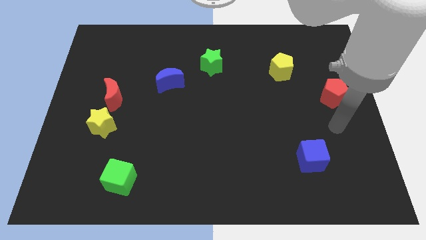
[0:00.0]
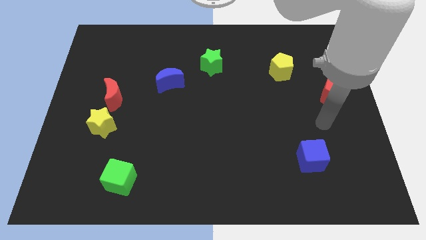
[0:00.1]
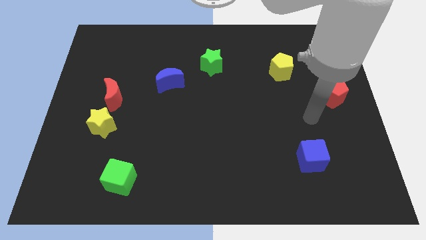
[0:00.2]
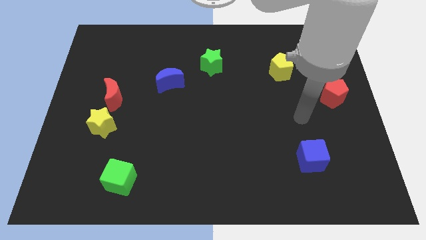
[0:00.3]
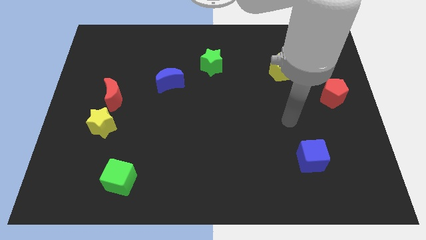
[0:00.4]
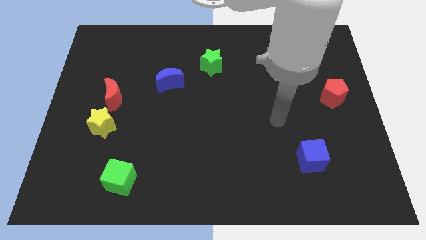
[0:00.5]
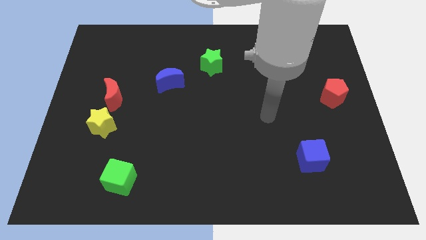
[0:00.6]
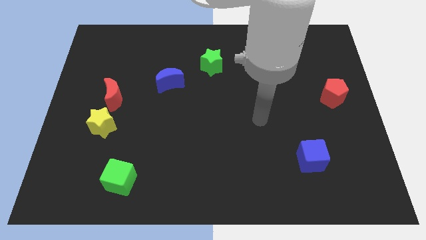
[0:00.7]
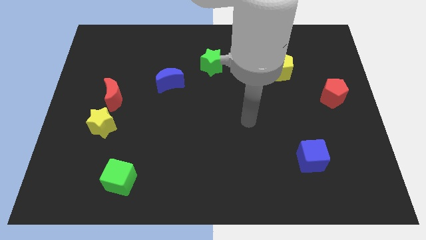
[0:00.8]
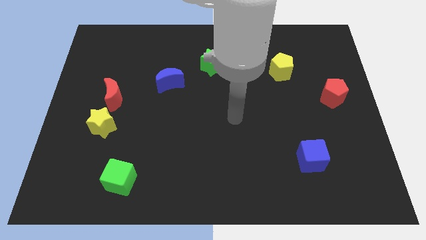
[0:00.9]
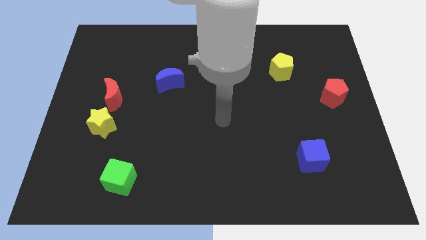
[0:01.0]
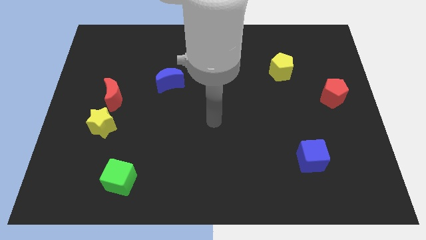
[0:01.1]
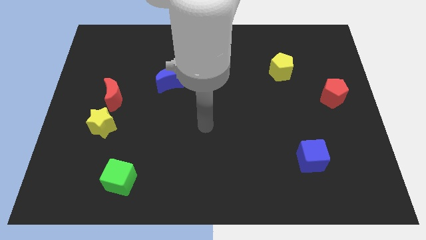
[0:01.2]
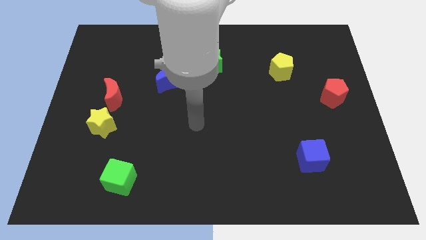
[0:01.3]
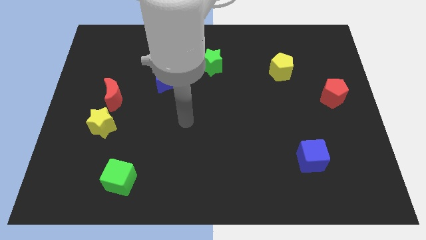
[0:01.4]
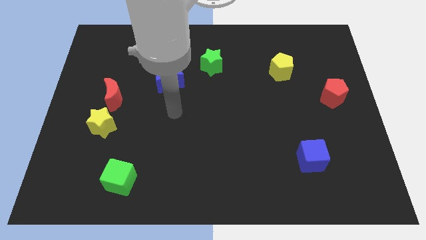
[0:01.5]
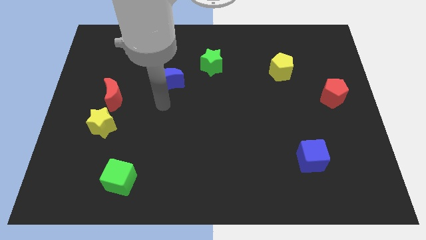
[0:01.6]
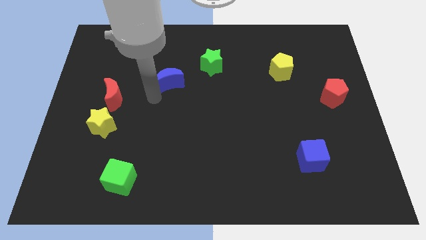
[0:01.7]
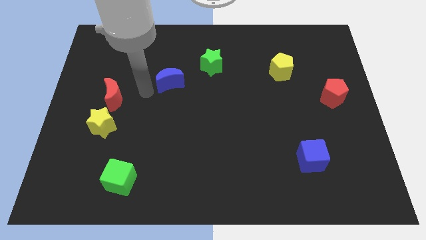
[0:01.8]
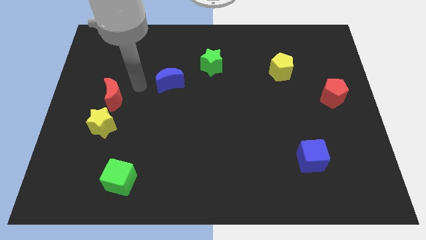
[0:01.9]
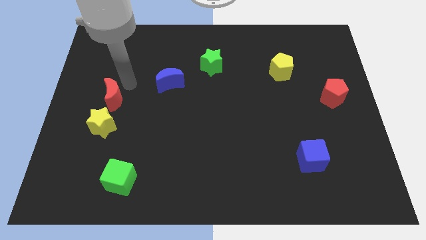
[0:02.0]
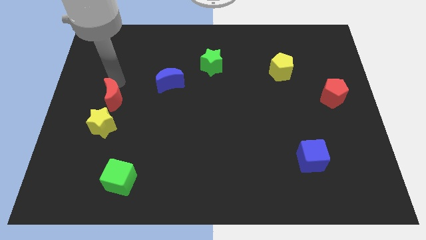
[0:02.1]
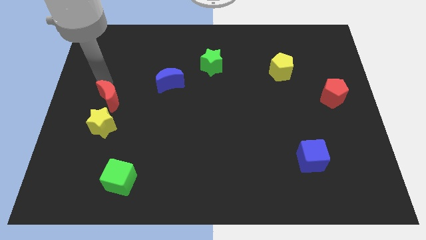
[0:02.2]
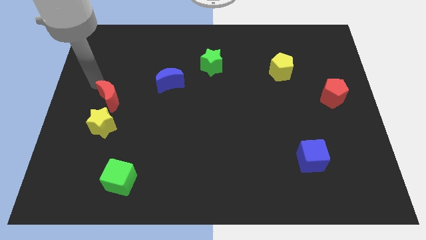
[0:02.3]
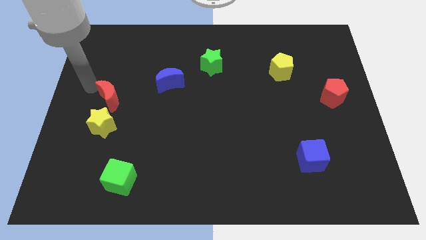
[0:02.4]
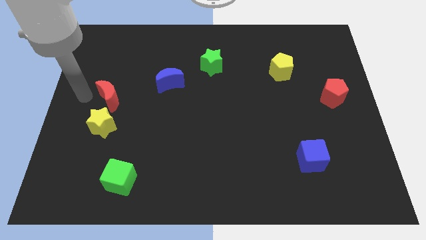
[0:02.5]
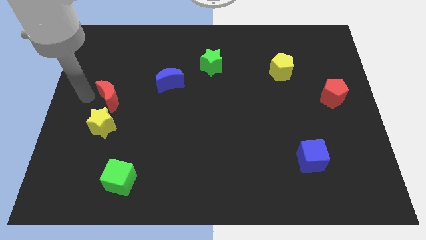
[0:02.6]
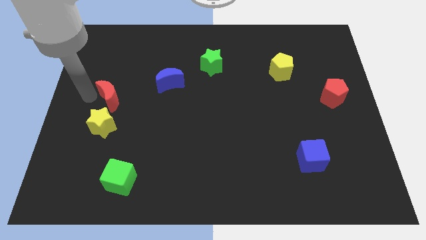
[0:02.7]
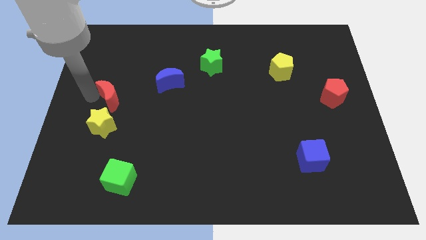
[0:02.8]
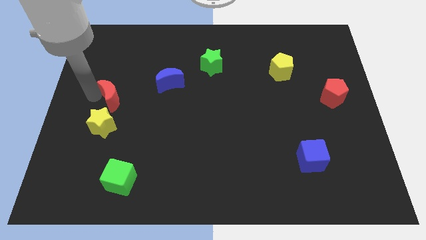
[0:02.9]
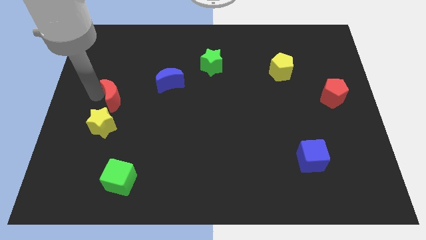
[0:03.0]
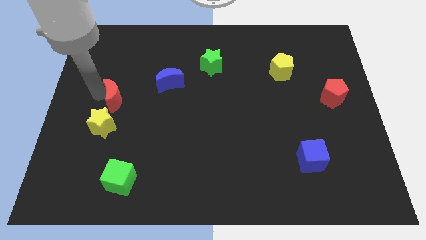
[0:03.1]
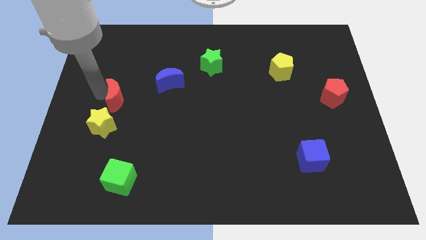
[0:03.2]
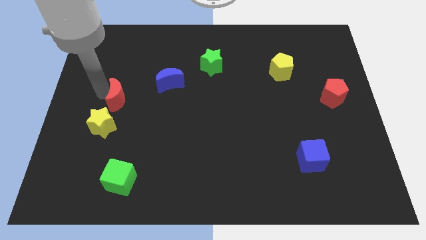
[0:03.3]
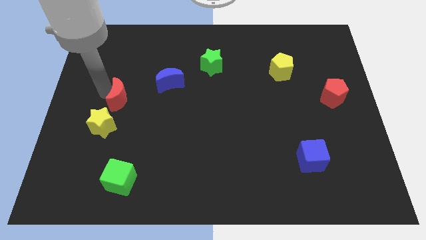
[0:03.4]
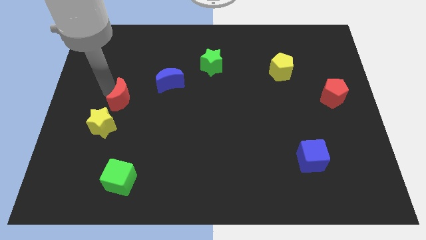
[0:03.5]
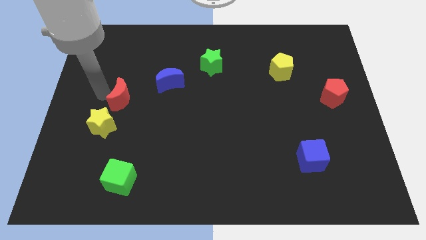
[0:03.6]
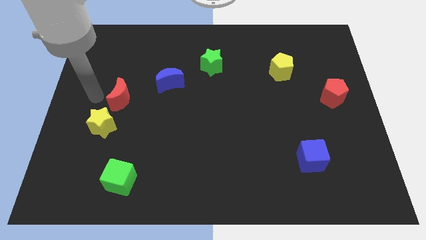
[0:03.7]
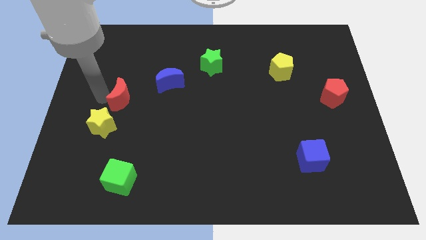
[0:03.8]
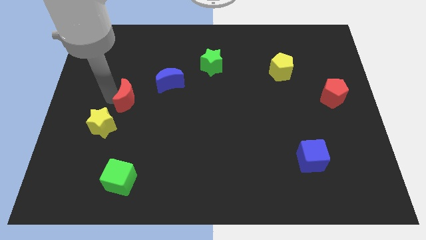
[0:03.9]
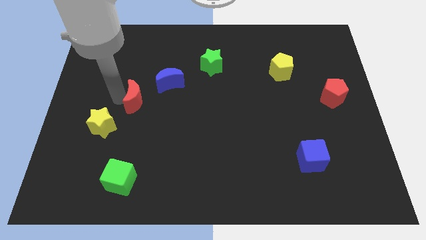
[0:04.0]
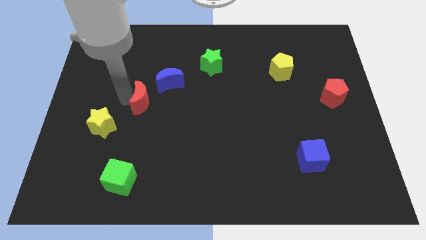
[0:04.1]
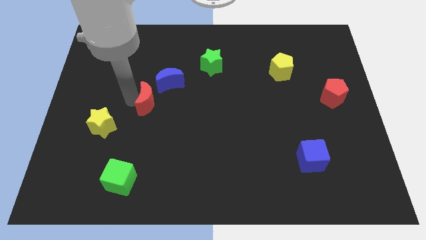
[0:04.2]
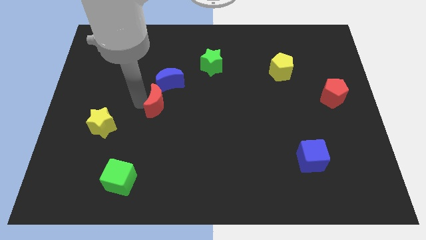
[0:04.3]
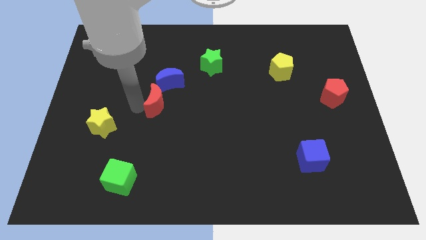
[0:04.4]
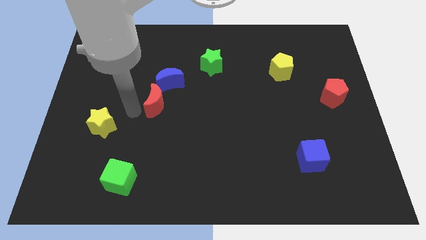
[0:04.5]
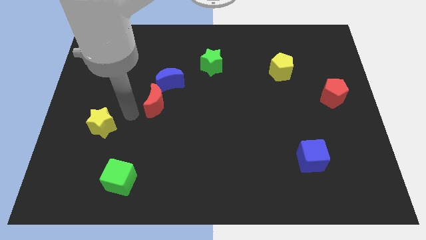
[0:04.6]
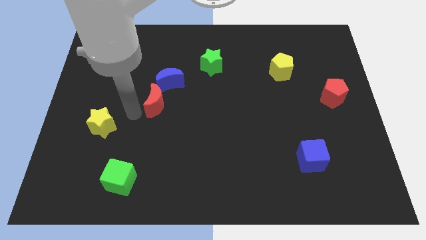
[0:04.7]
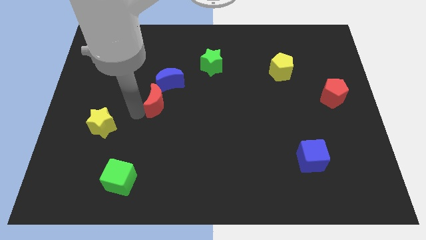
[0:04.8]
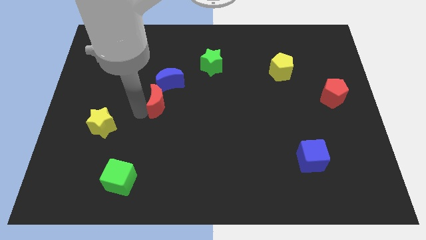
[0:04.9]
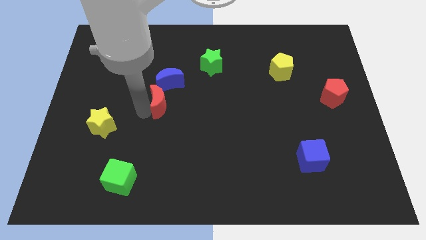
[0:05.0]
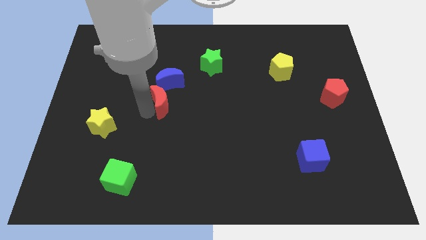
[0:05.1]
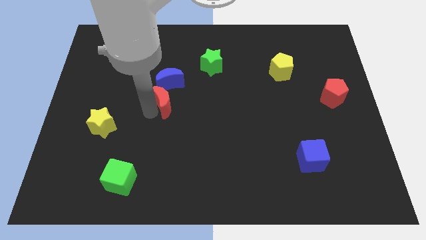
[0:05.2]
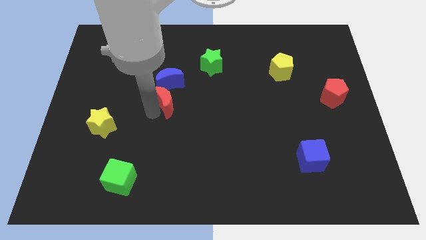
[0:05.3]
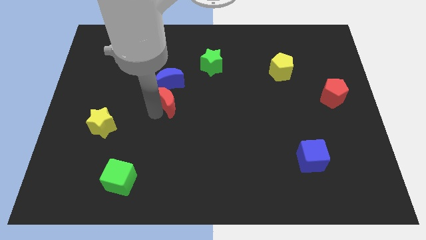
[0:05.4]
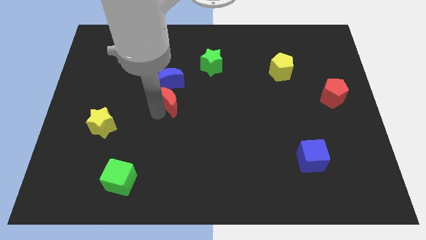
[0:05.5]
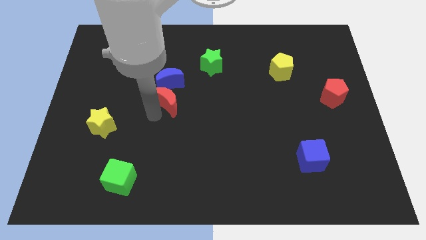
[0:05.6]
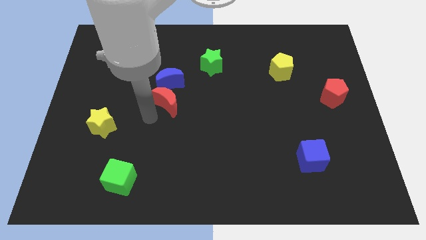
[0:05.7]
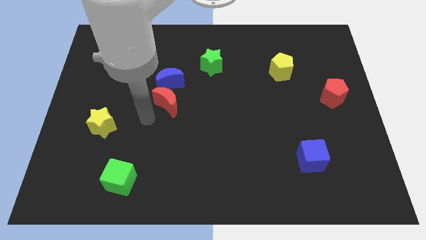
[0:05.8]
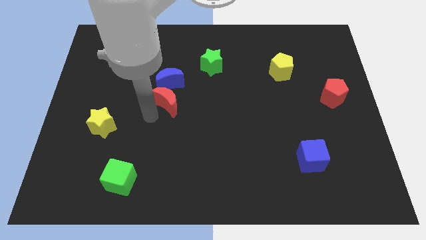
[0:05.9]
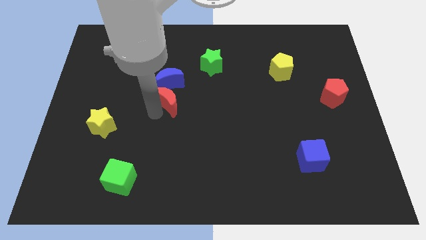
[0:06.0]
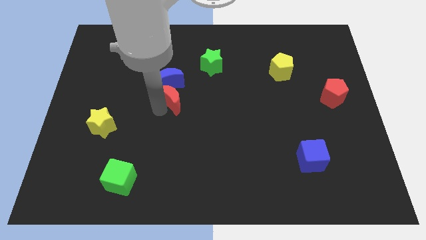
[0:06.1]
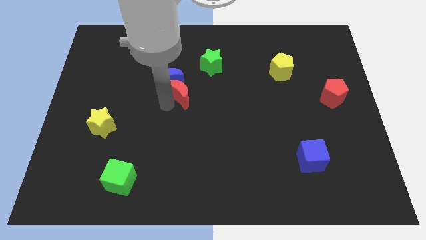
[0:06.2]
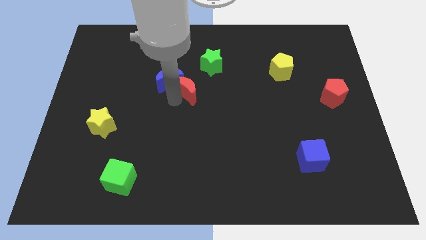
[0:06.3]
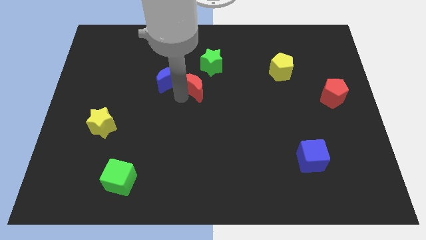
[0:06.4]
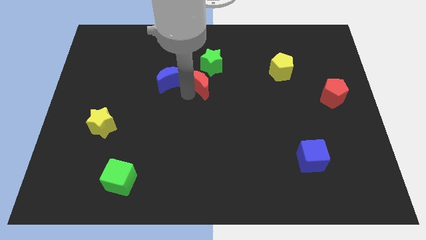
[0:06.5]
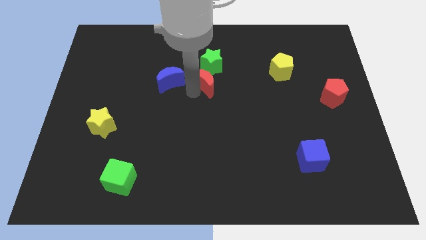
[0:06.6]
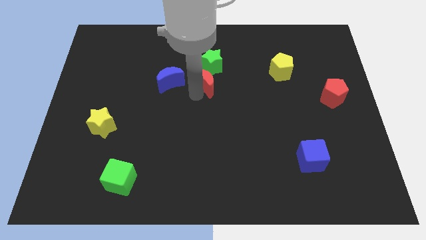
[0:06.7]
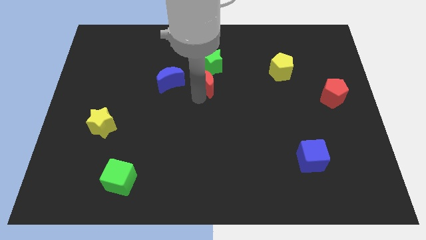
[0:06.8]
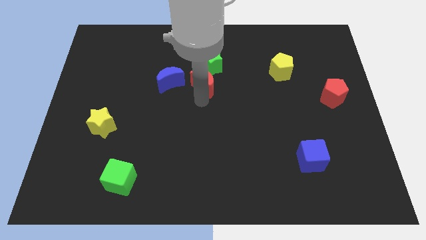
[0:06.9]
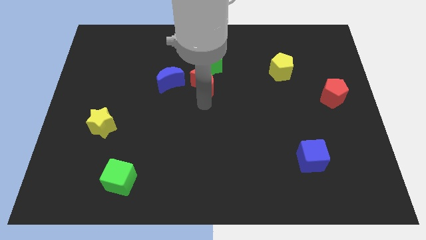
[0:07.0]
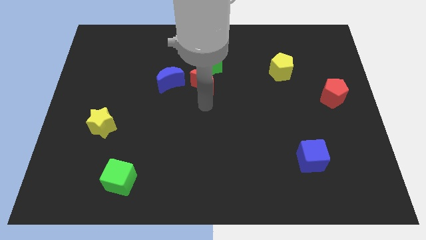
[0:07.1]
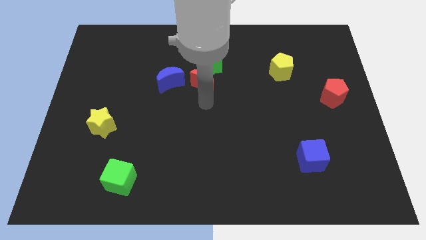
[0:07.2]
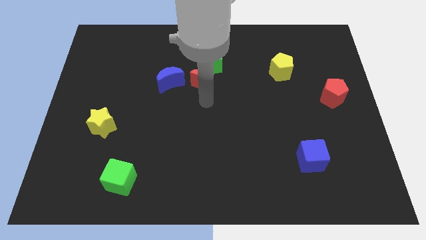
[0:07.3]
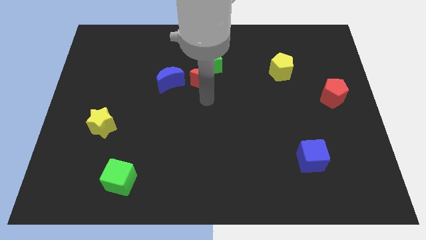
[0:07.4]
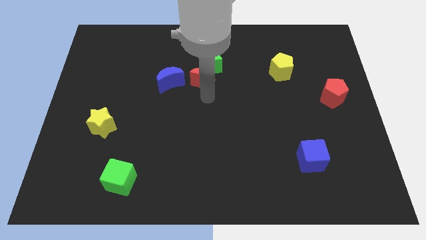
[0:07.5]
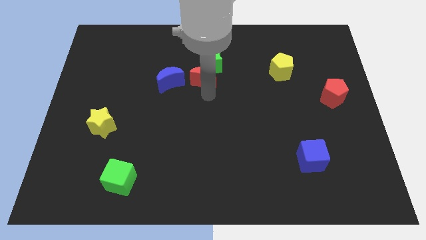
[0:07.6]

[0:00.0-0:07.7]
put the red moon next to the green star
